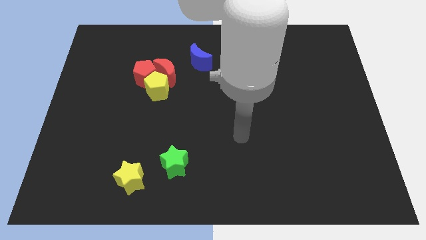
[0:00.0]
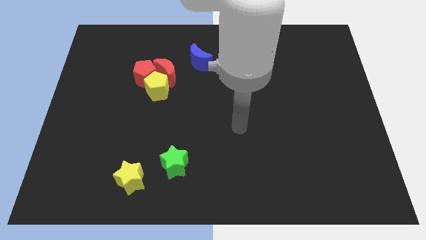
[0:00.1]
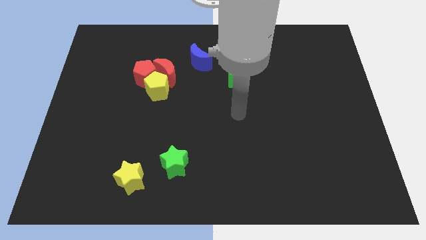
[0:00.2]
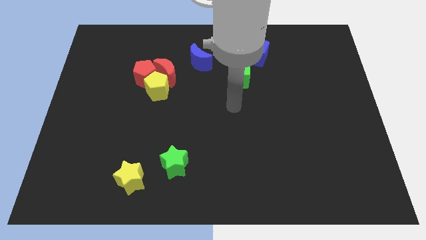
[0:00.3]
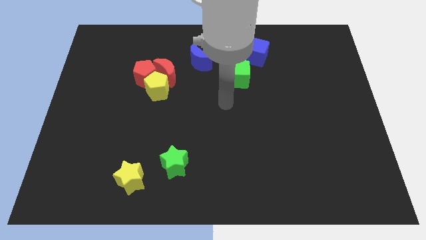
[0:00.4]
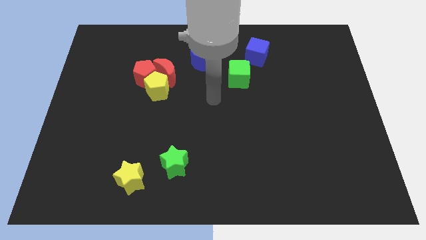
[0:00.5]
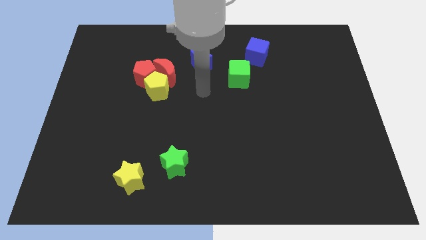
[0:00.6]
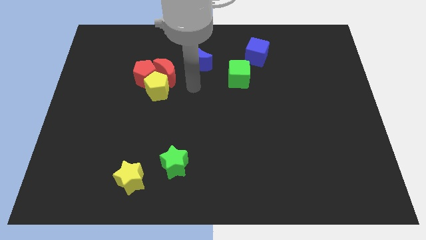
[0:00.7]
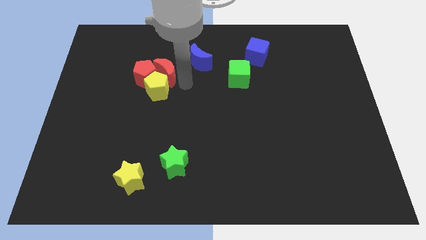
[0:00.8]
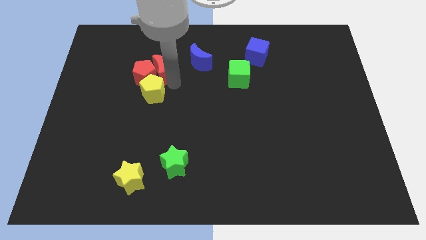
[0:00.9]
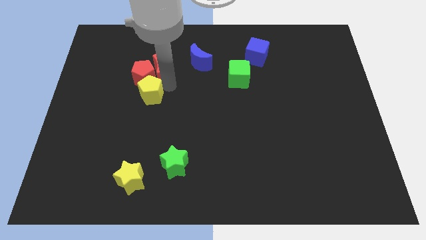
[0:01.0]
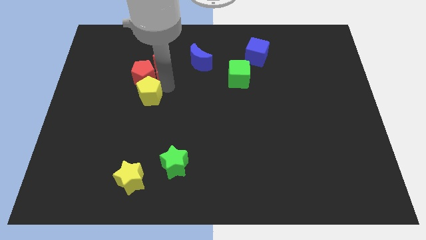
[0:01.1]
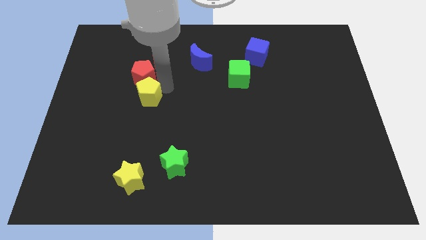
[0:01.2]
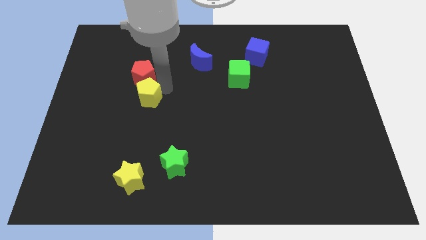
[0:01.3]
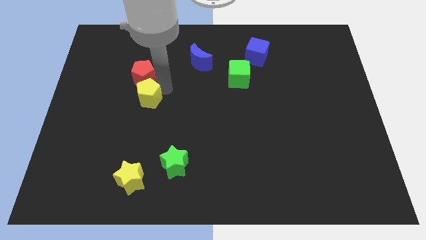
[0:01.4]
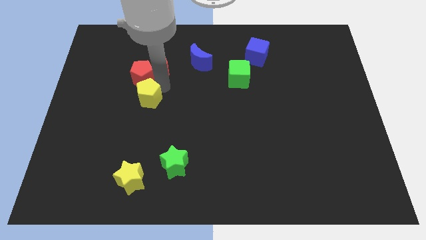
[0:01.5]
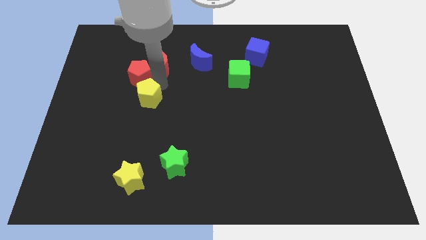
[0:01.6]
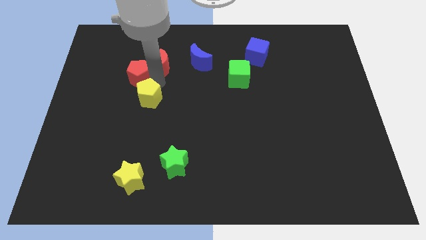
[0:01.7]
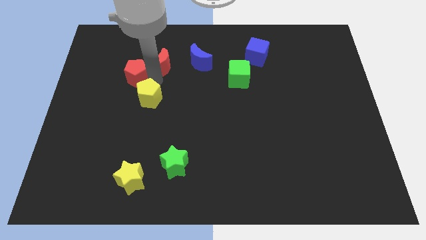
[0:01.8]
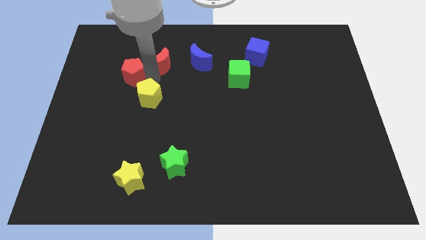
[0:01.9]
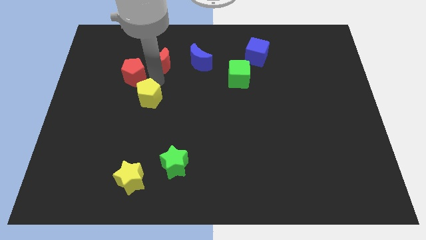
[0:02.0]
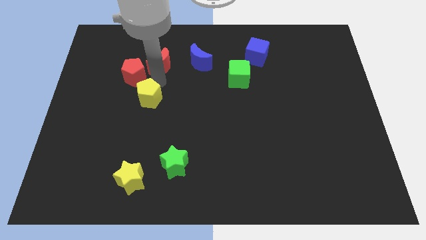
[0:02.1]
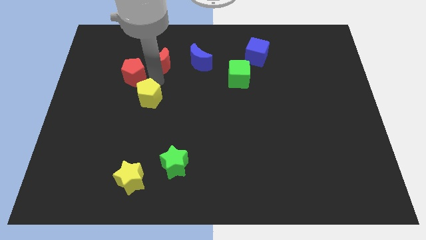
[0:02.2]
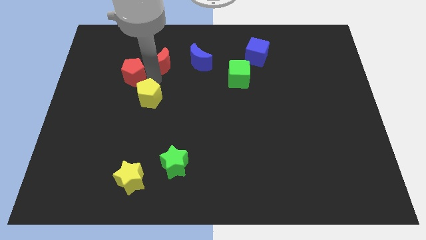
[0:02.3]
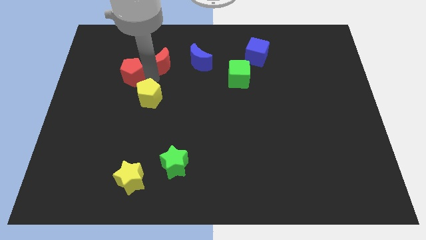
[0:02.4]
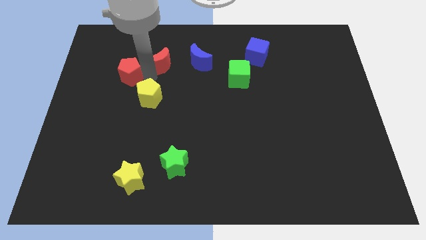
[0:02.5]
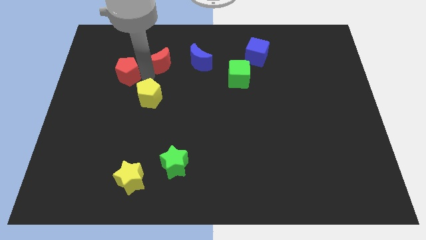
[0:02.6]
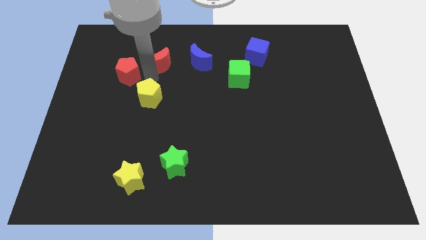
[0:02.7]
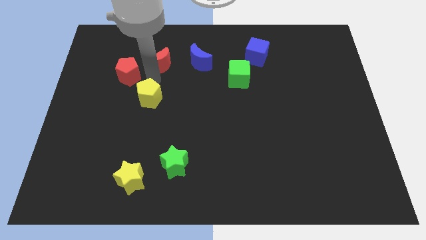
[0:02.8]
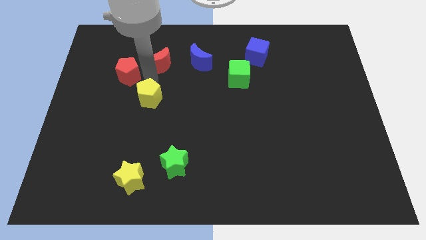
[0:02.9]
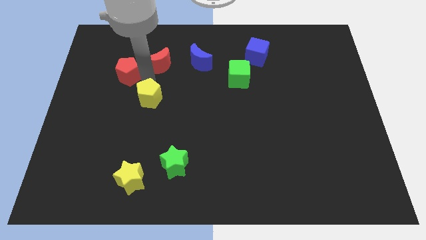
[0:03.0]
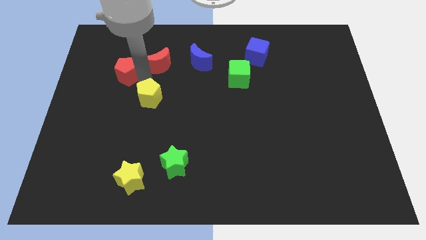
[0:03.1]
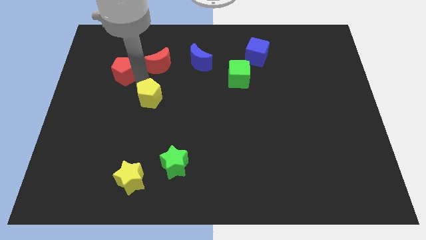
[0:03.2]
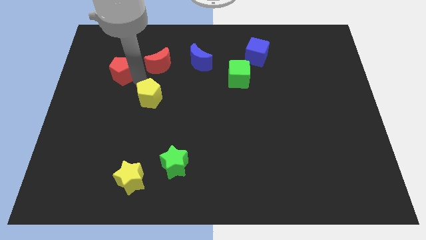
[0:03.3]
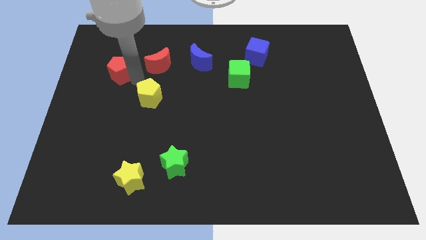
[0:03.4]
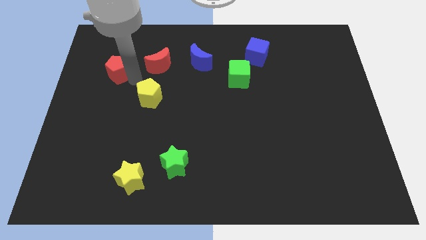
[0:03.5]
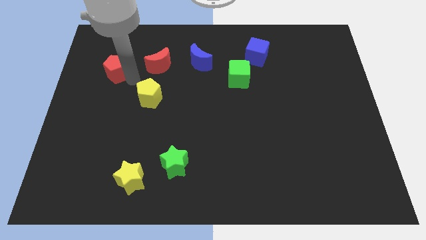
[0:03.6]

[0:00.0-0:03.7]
move the red pentagon away from the yellow pentagon and red moon

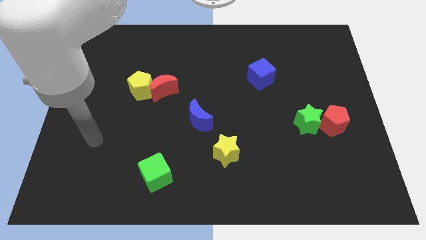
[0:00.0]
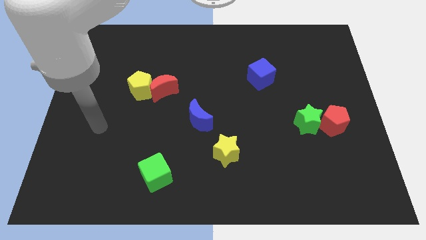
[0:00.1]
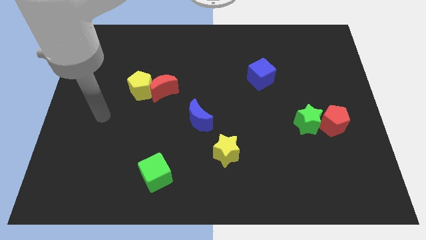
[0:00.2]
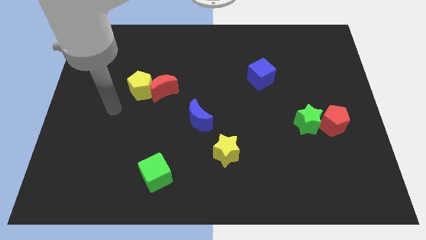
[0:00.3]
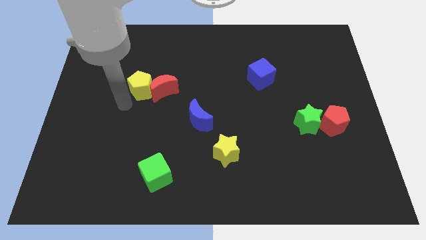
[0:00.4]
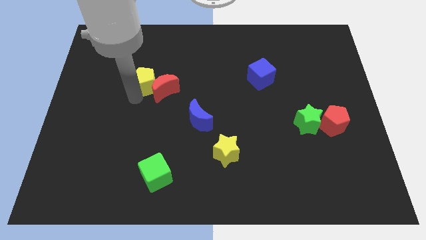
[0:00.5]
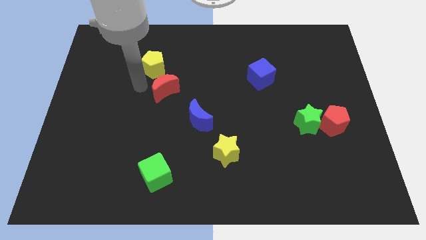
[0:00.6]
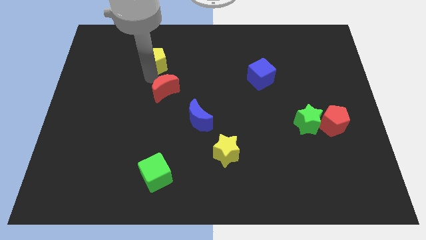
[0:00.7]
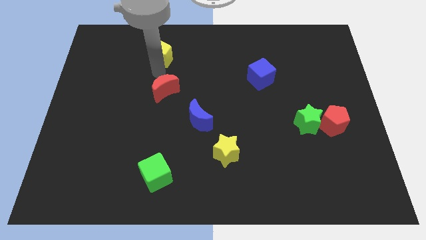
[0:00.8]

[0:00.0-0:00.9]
separate the red moon from the yellow pentagon

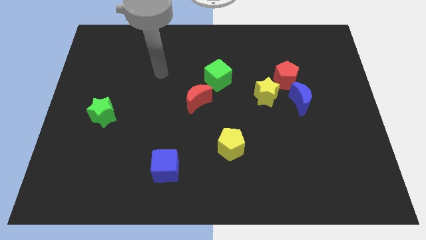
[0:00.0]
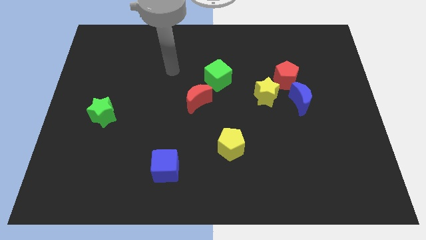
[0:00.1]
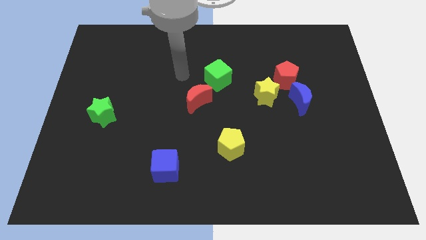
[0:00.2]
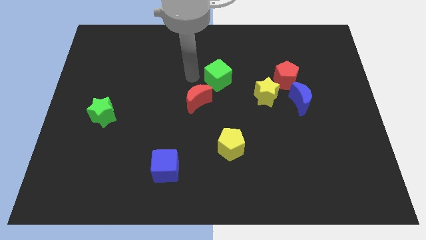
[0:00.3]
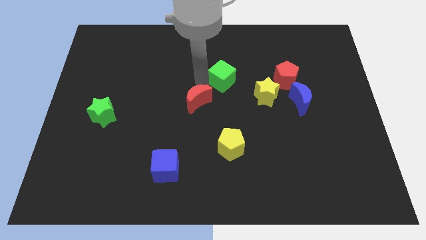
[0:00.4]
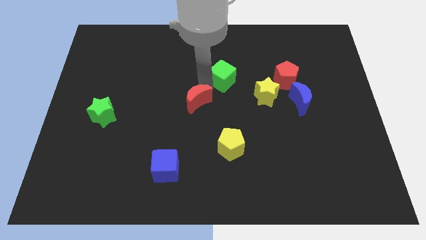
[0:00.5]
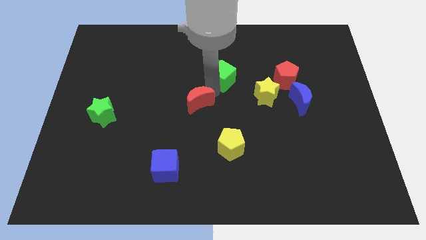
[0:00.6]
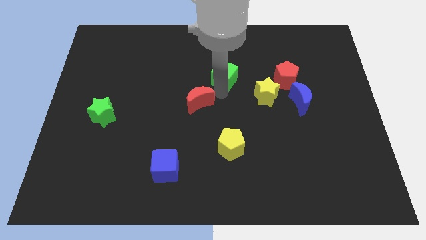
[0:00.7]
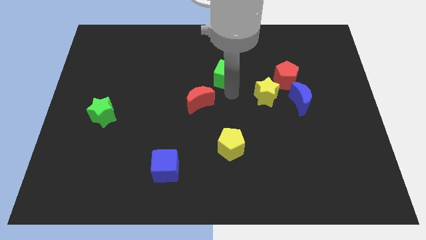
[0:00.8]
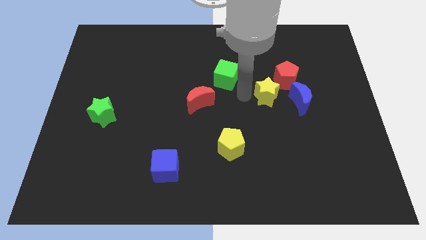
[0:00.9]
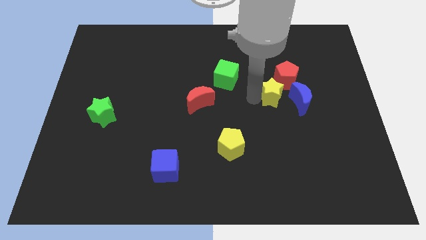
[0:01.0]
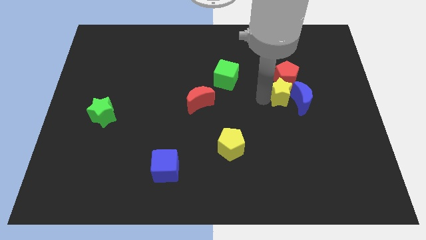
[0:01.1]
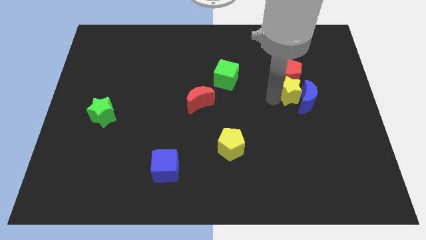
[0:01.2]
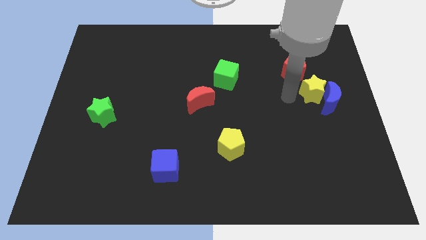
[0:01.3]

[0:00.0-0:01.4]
pull the red pentagon apart from the yellow star and blue moon

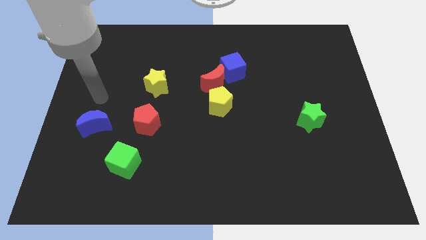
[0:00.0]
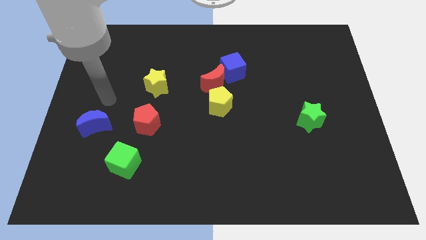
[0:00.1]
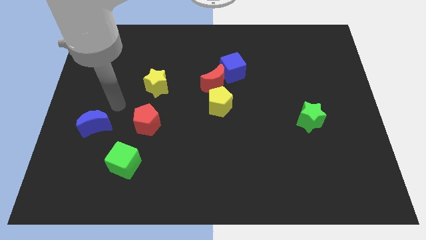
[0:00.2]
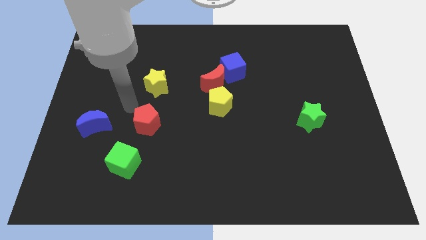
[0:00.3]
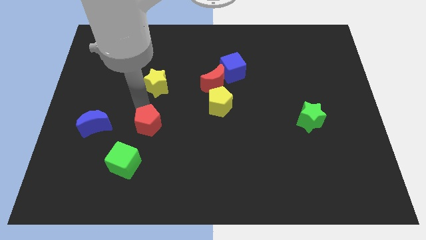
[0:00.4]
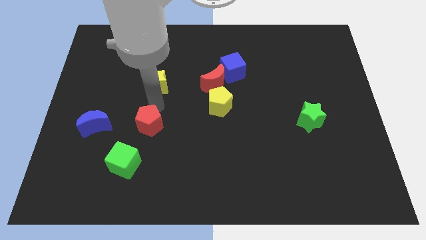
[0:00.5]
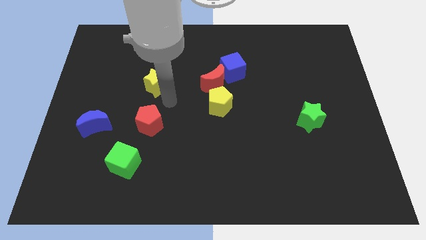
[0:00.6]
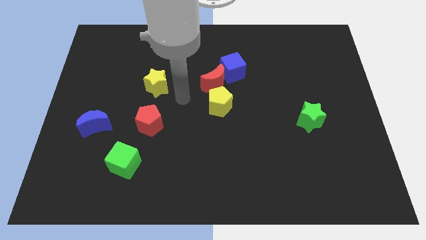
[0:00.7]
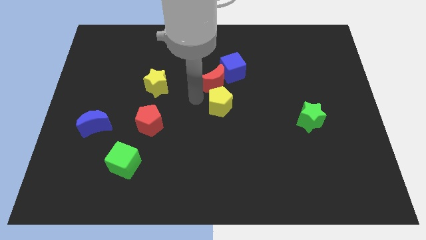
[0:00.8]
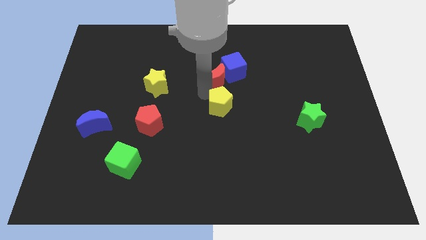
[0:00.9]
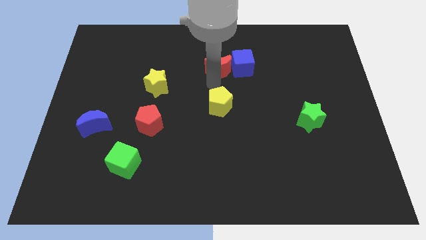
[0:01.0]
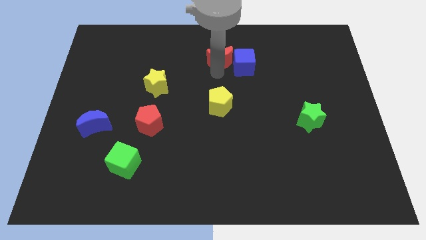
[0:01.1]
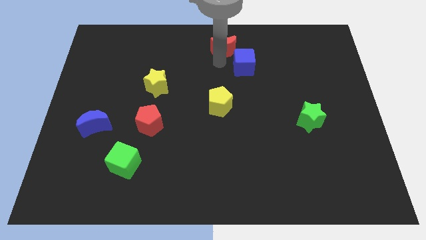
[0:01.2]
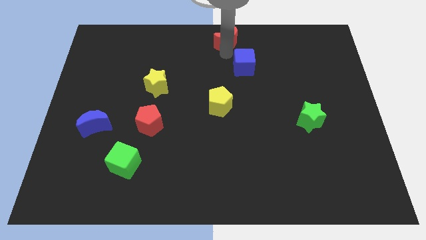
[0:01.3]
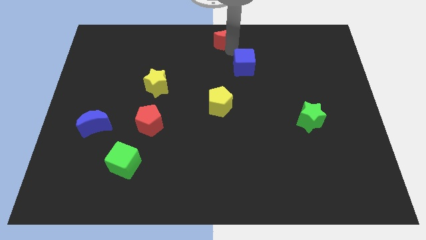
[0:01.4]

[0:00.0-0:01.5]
move the blue cube away from the red moon

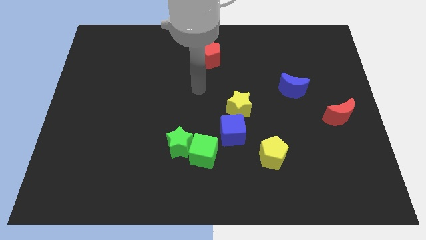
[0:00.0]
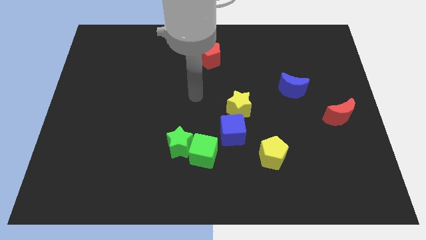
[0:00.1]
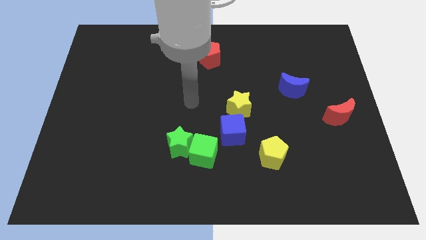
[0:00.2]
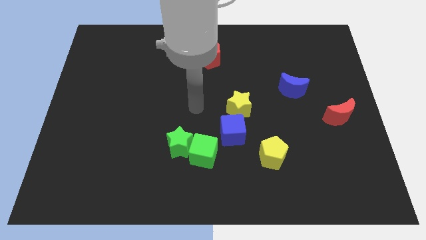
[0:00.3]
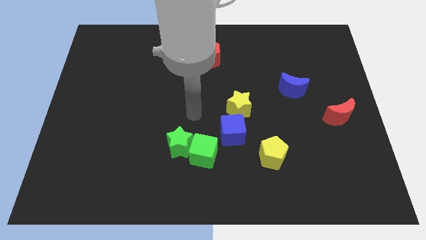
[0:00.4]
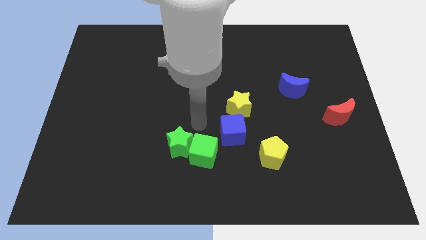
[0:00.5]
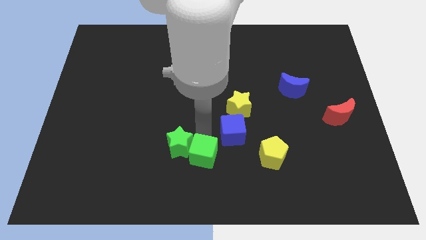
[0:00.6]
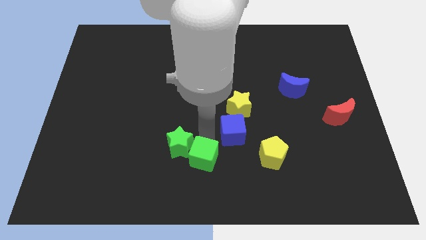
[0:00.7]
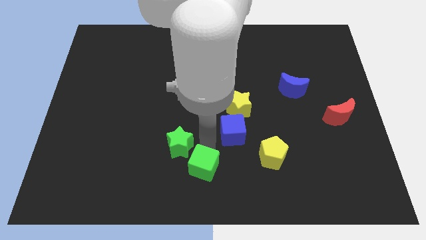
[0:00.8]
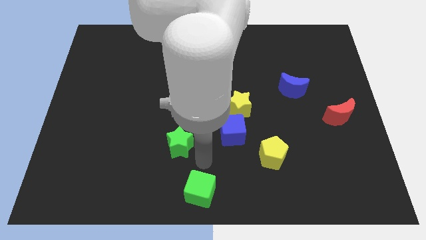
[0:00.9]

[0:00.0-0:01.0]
move the green star away from the green cube

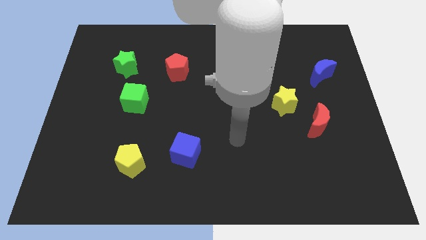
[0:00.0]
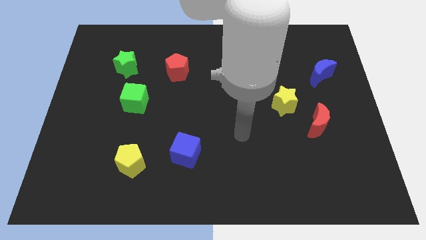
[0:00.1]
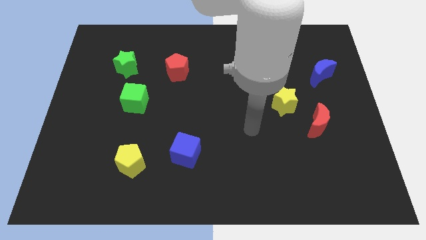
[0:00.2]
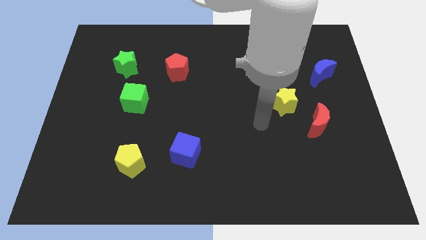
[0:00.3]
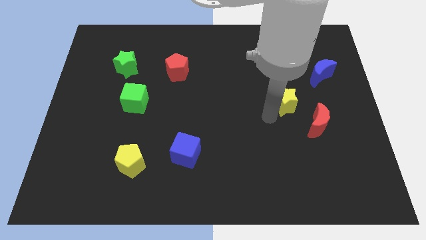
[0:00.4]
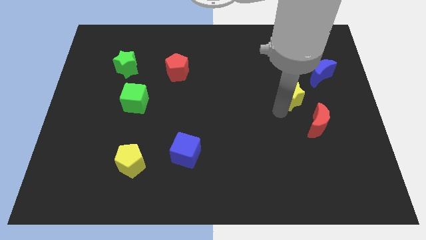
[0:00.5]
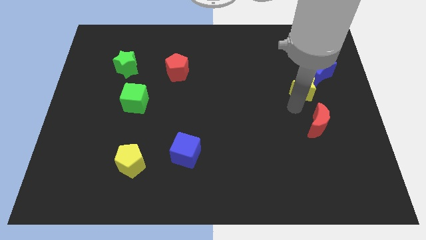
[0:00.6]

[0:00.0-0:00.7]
move the red moon away from the yellow star
